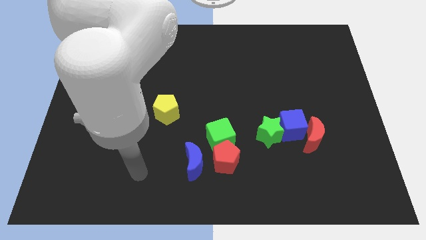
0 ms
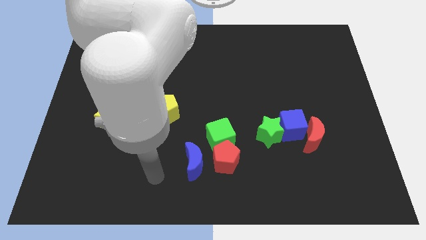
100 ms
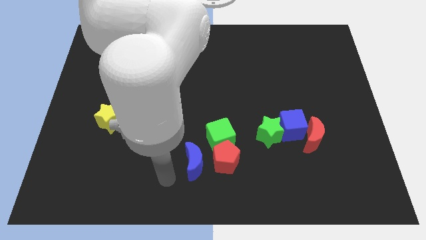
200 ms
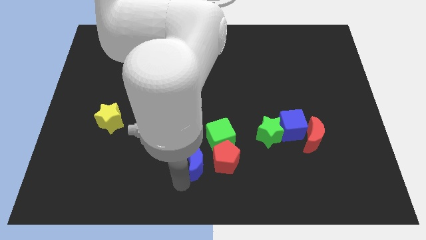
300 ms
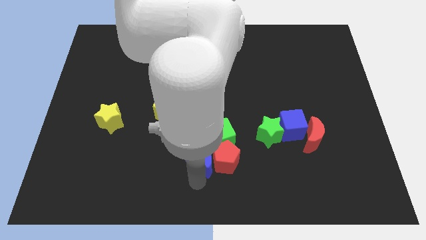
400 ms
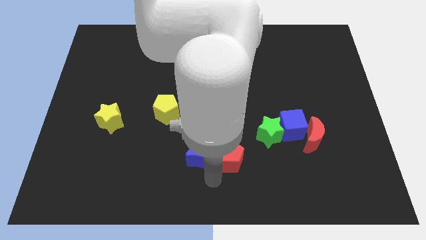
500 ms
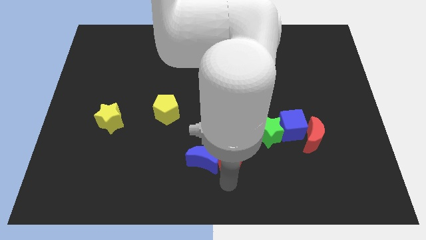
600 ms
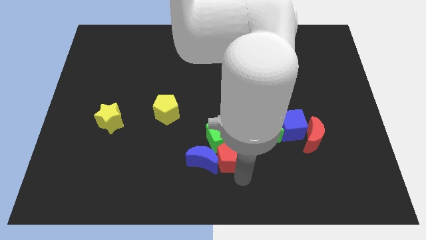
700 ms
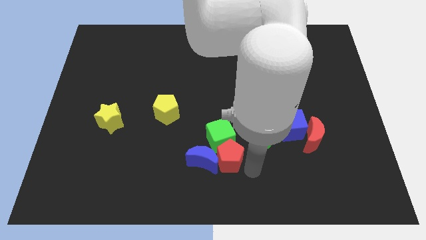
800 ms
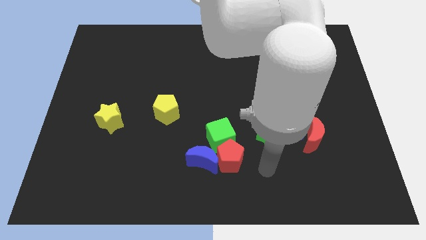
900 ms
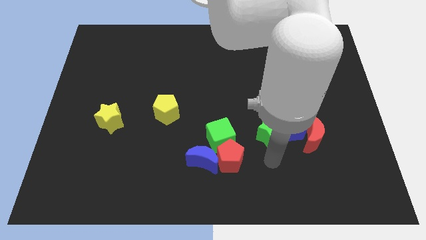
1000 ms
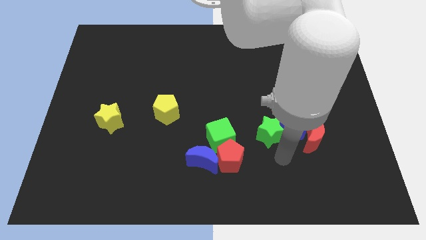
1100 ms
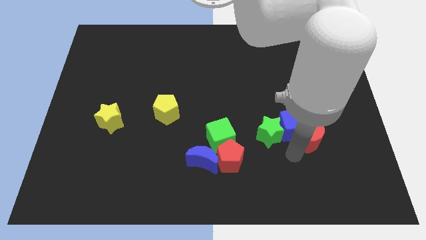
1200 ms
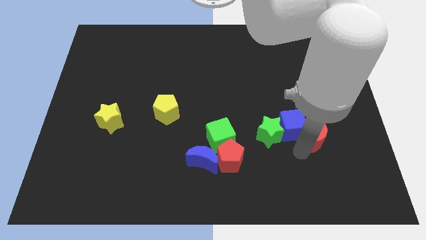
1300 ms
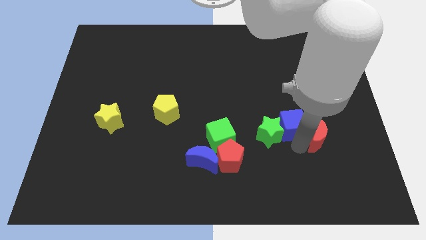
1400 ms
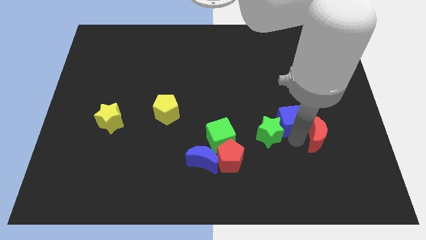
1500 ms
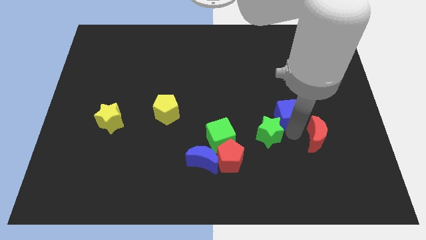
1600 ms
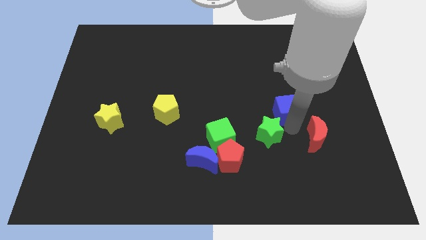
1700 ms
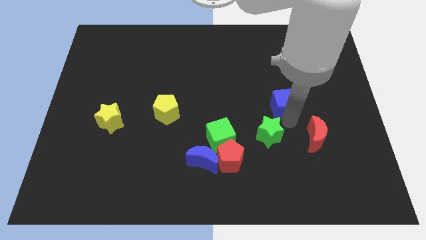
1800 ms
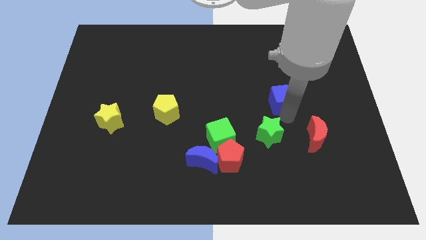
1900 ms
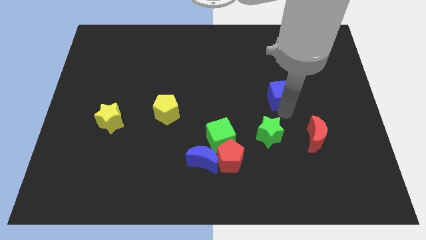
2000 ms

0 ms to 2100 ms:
pull the blue cube apart from the green star and red moon

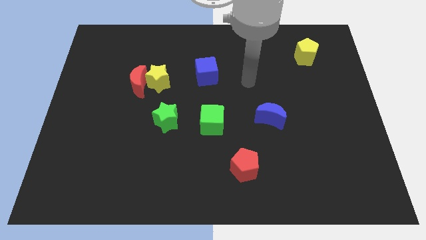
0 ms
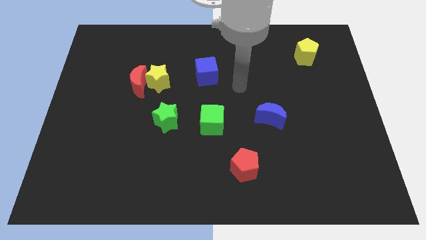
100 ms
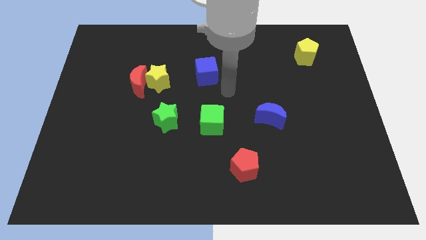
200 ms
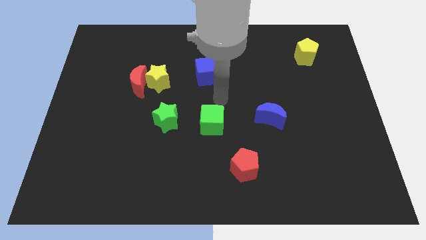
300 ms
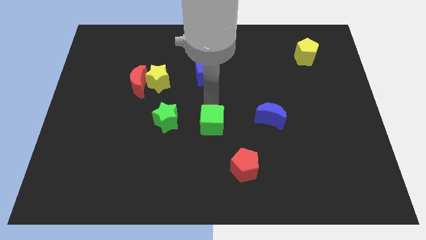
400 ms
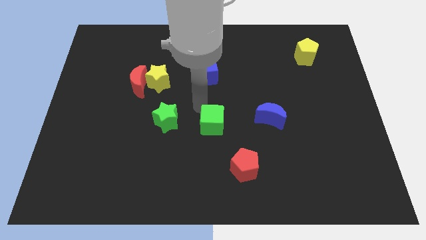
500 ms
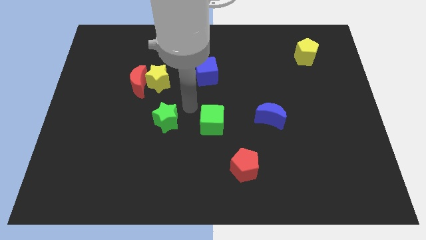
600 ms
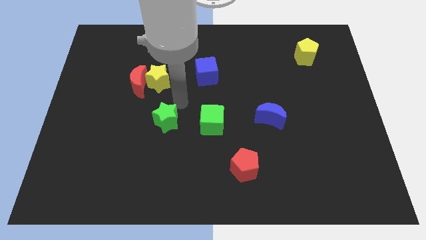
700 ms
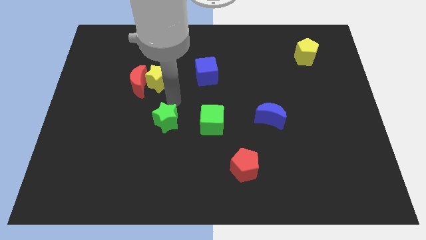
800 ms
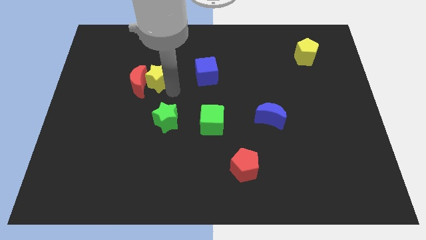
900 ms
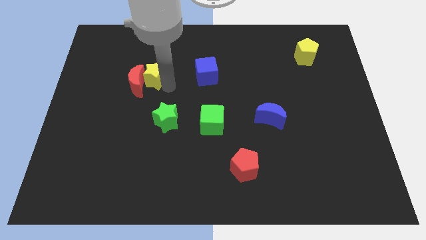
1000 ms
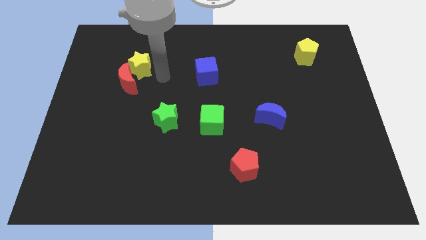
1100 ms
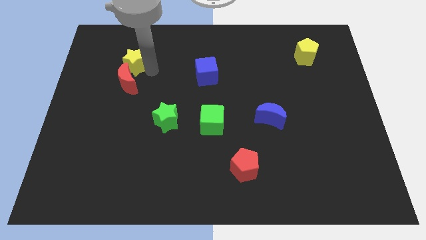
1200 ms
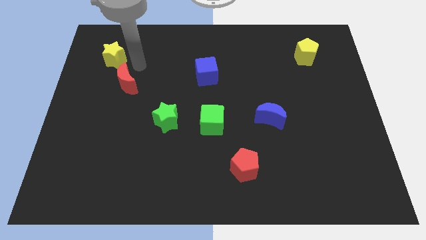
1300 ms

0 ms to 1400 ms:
pull the red moon apart from the yellow star

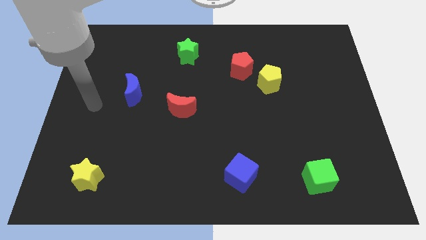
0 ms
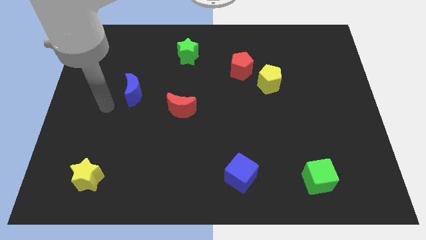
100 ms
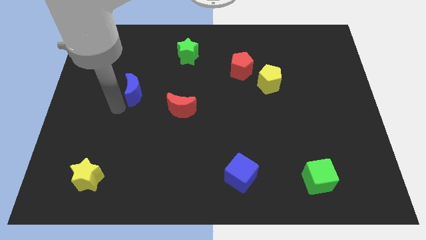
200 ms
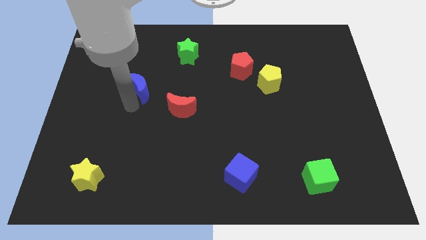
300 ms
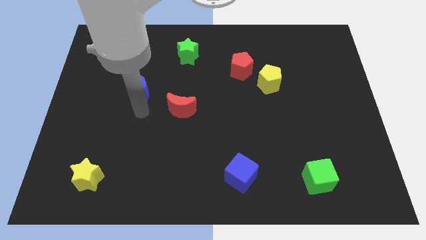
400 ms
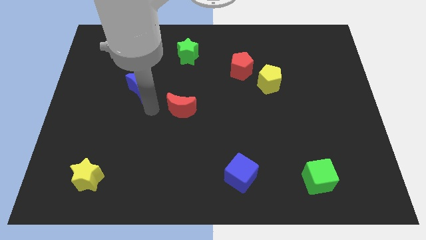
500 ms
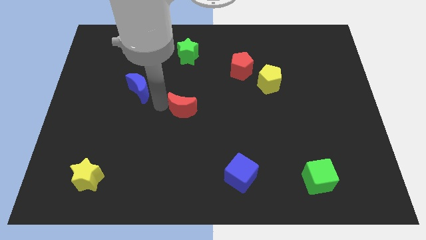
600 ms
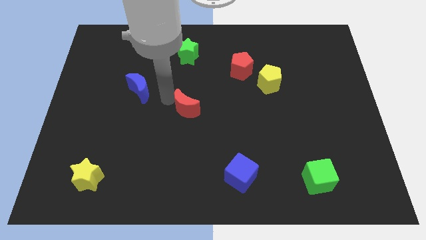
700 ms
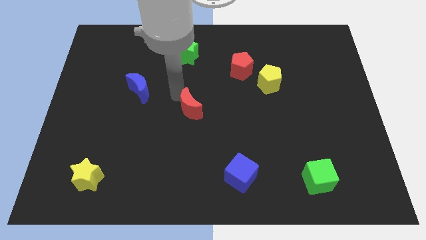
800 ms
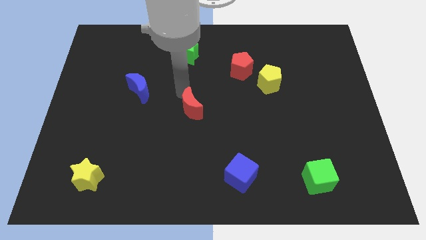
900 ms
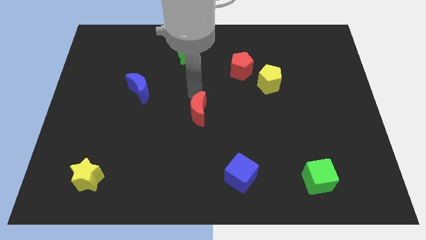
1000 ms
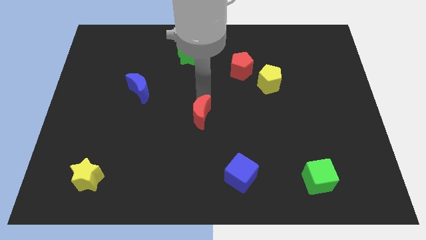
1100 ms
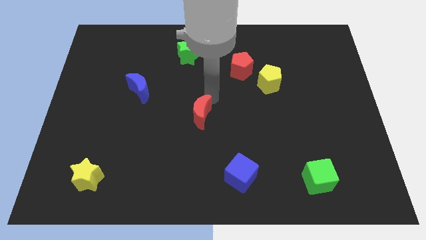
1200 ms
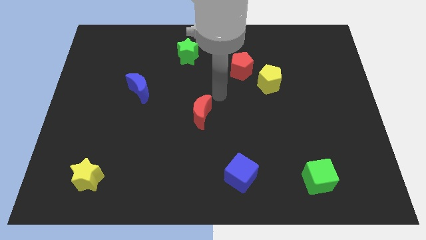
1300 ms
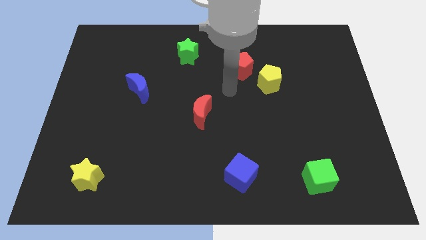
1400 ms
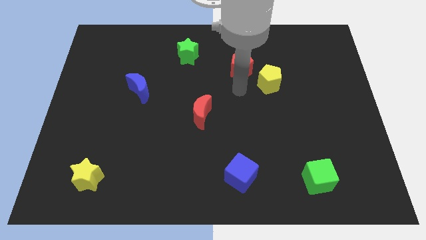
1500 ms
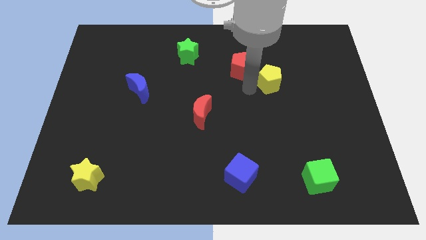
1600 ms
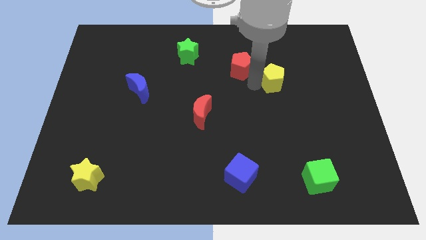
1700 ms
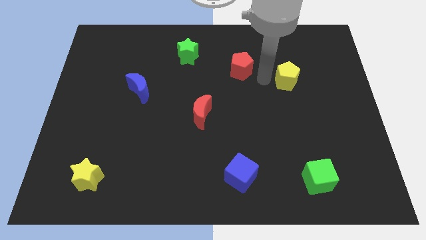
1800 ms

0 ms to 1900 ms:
separate the red pentagon from the yellow pentagon

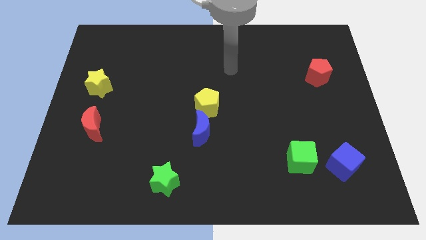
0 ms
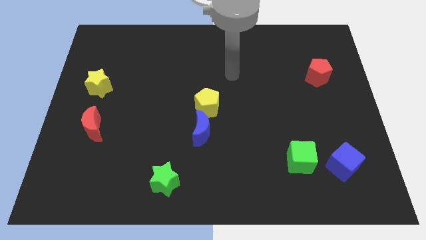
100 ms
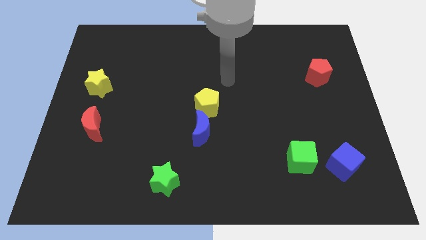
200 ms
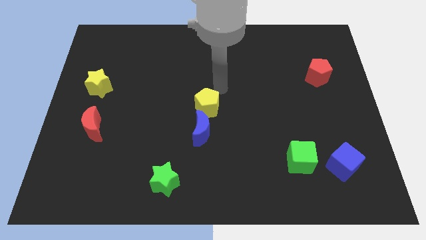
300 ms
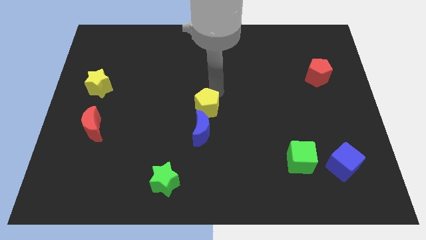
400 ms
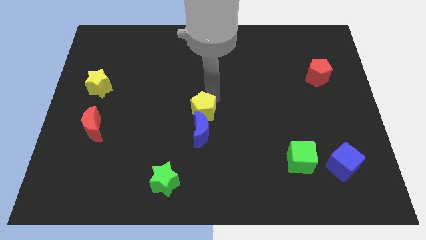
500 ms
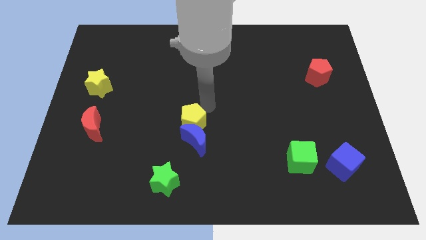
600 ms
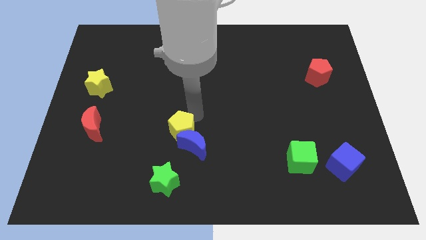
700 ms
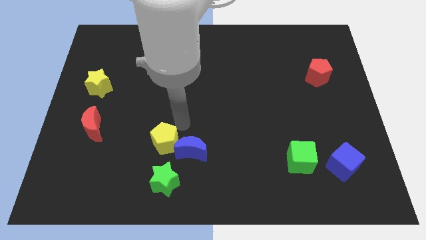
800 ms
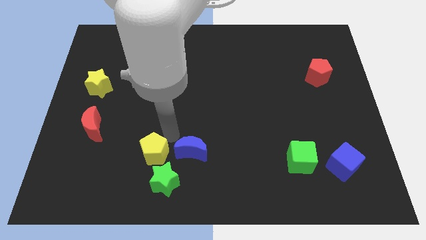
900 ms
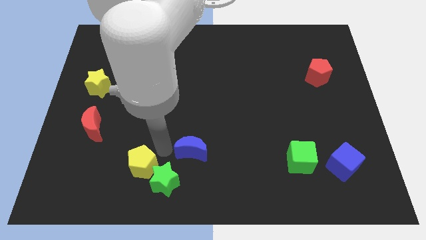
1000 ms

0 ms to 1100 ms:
move the blue moon away from the yellow pentagon

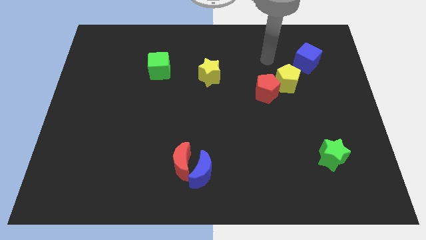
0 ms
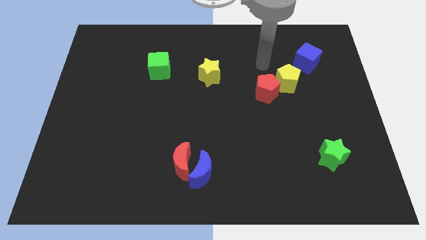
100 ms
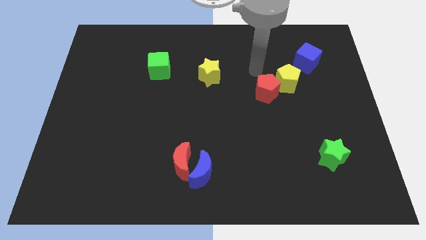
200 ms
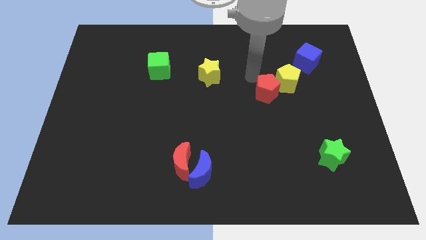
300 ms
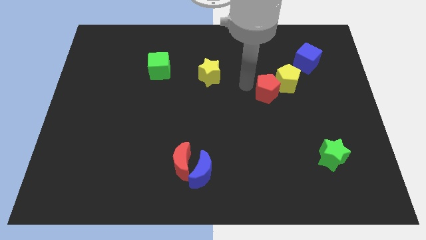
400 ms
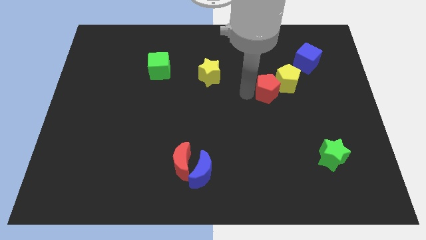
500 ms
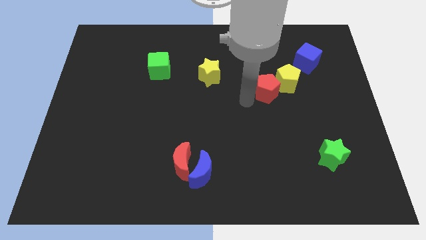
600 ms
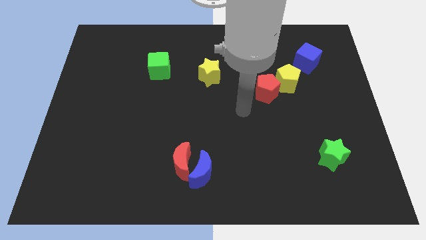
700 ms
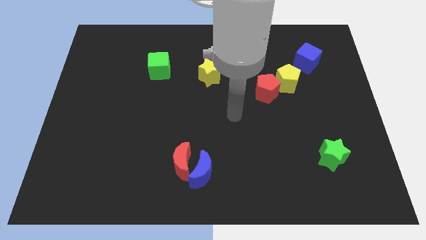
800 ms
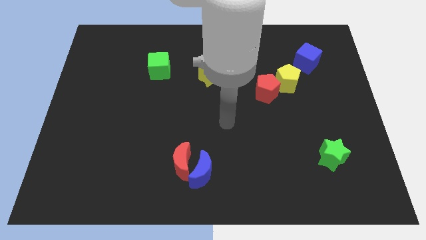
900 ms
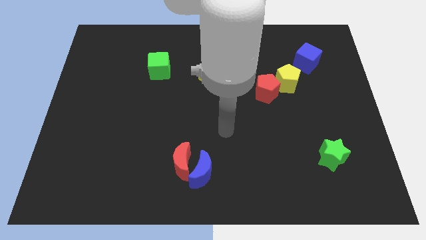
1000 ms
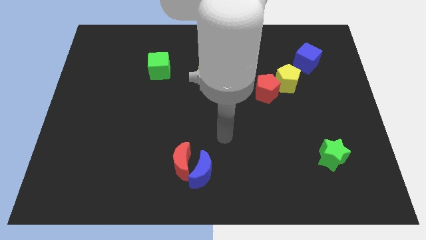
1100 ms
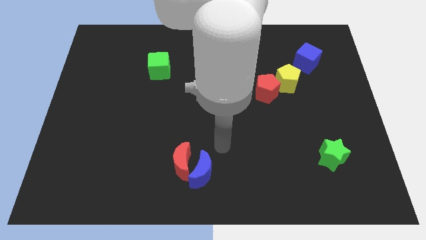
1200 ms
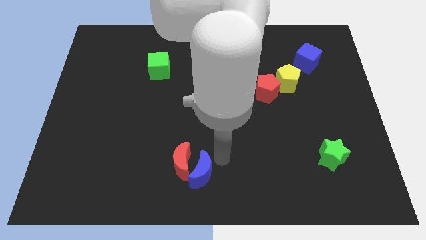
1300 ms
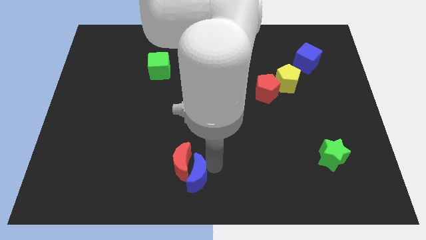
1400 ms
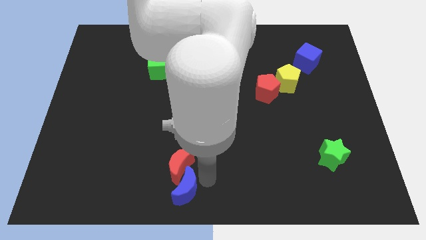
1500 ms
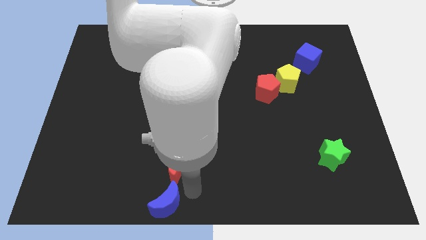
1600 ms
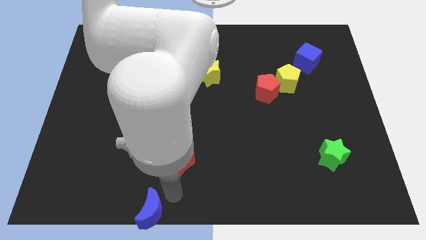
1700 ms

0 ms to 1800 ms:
pull the red moon apart from the blue moon

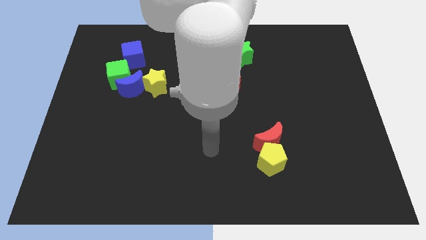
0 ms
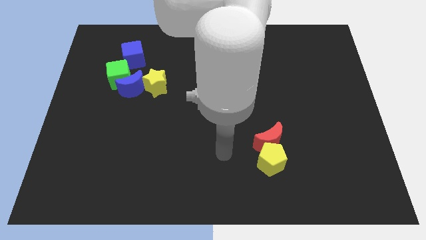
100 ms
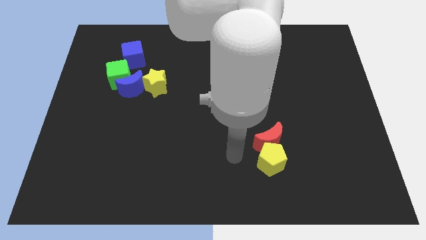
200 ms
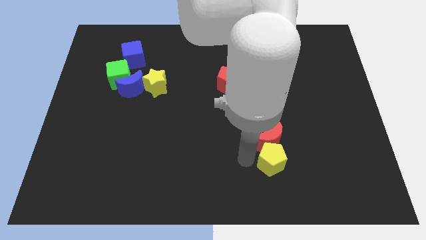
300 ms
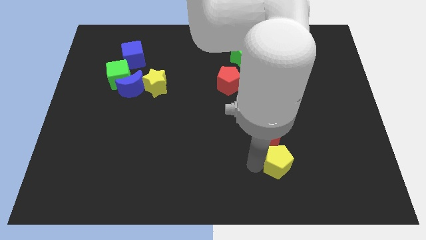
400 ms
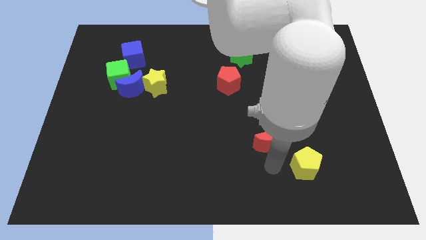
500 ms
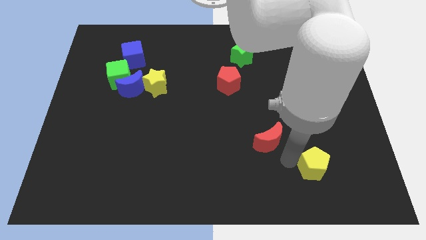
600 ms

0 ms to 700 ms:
pull the red moon apart from the yellow pentagon

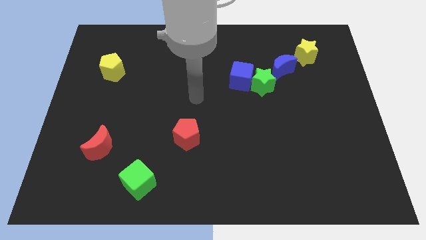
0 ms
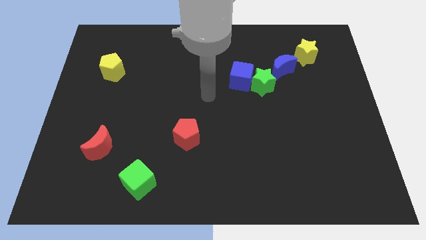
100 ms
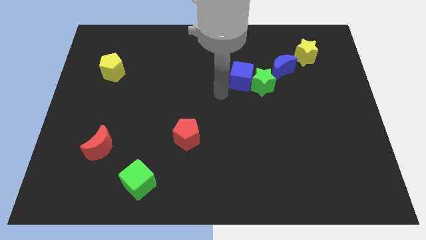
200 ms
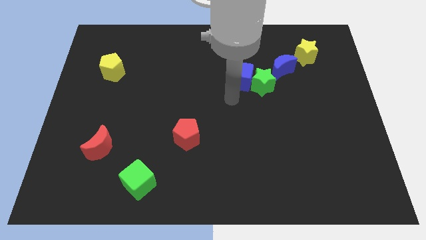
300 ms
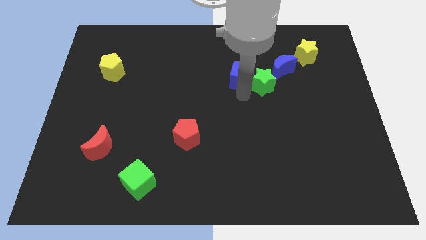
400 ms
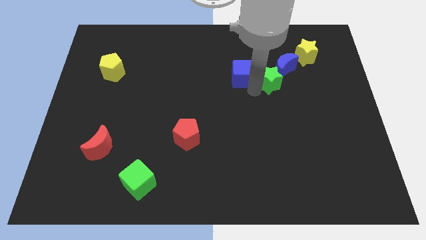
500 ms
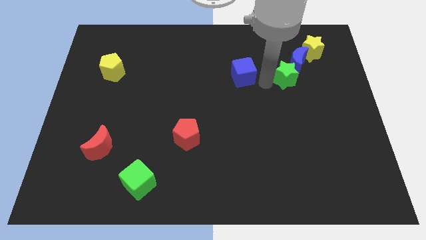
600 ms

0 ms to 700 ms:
move the blue cube away from the green star
